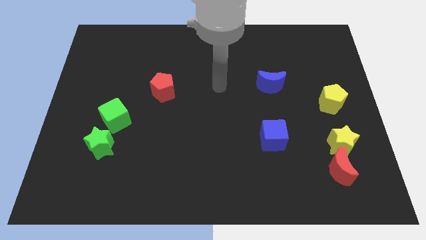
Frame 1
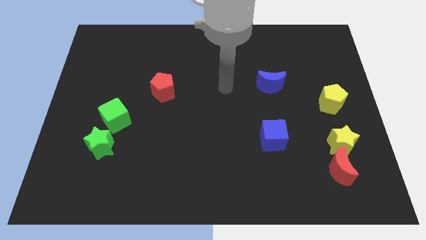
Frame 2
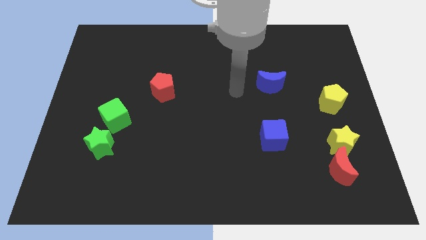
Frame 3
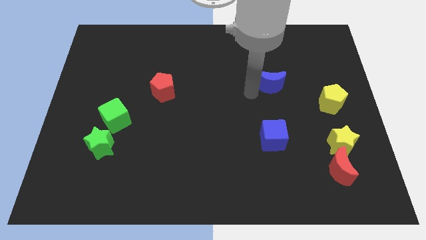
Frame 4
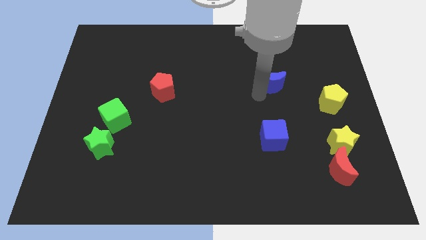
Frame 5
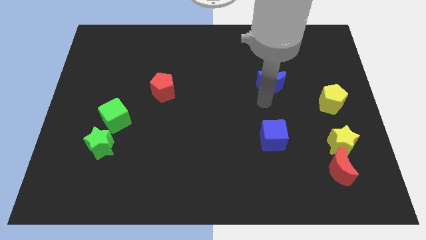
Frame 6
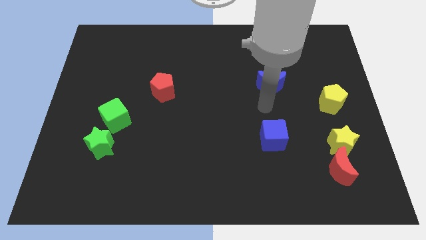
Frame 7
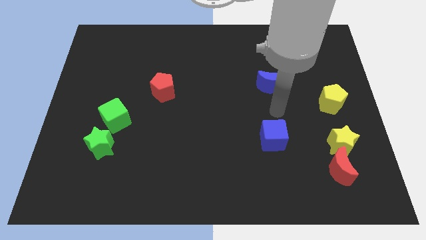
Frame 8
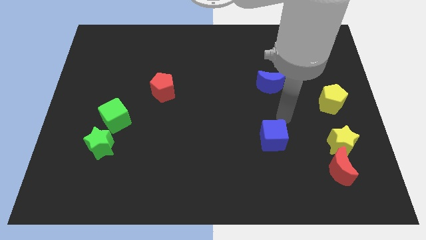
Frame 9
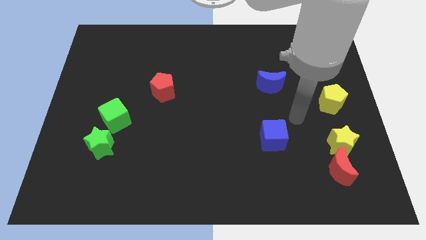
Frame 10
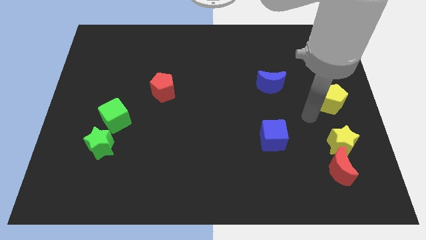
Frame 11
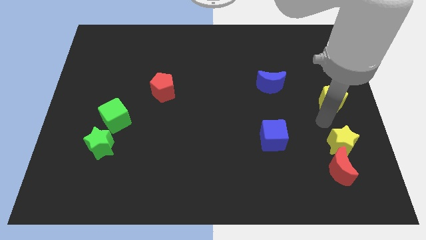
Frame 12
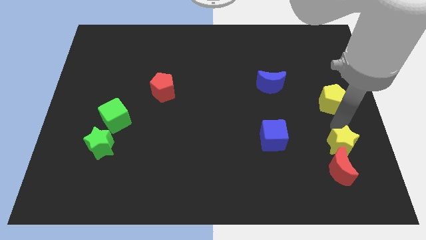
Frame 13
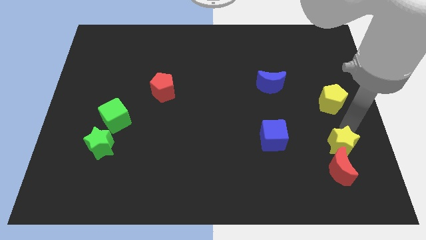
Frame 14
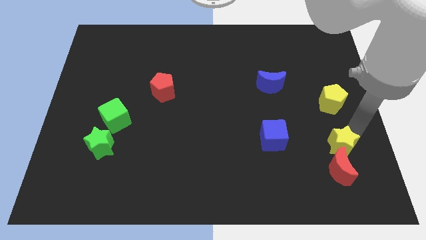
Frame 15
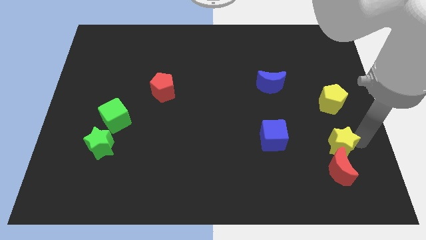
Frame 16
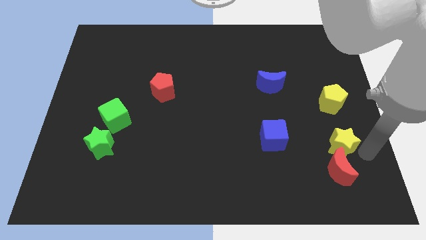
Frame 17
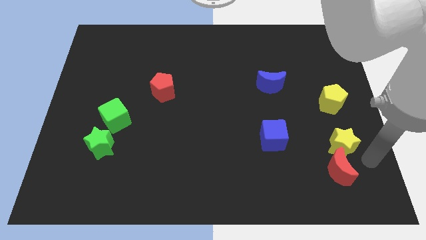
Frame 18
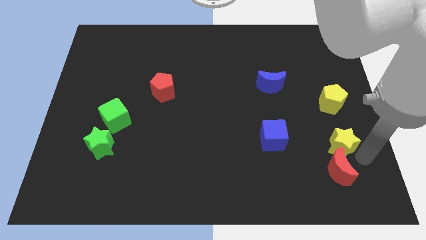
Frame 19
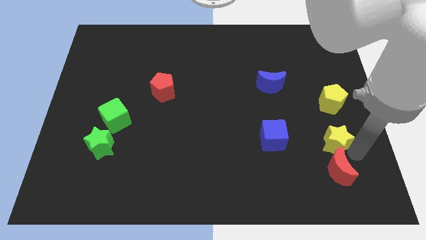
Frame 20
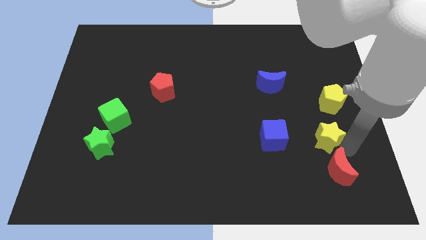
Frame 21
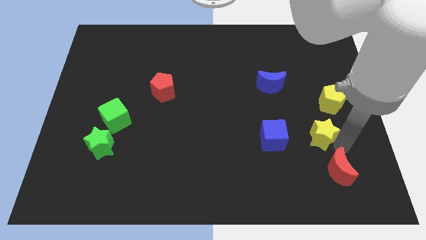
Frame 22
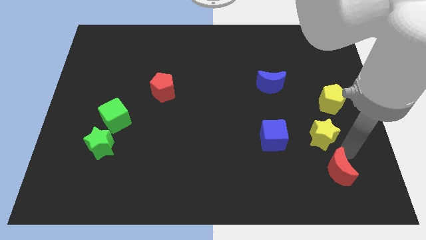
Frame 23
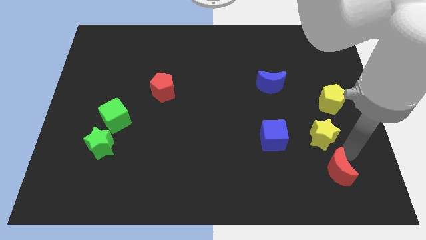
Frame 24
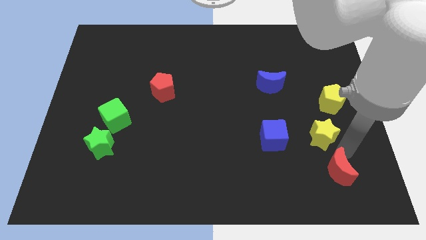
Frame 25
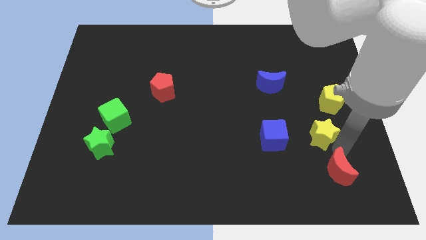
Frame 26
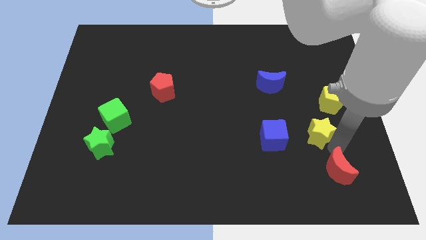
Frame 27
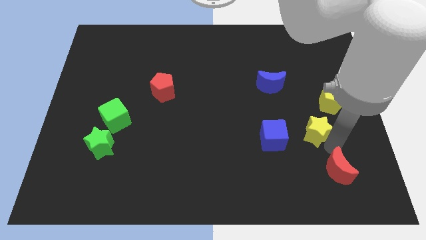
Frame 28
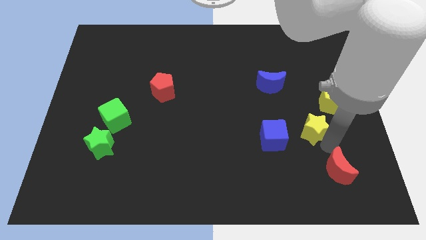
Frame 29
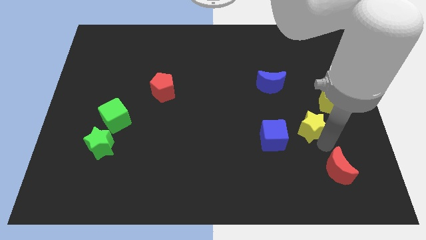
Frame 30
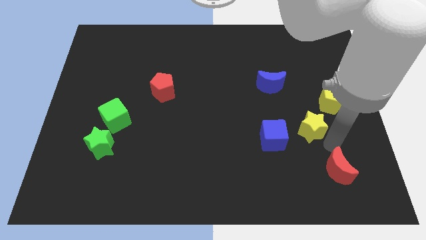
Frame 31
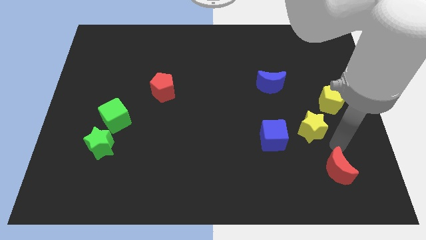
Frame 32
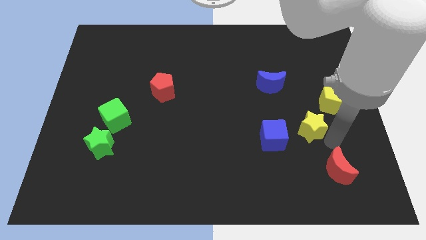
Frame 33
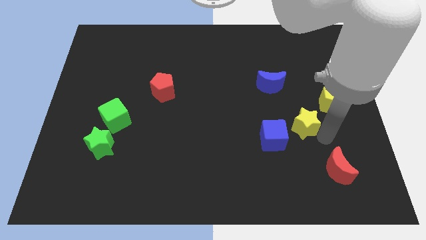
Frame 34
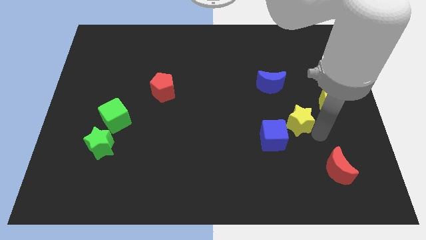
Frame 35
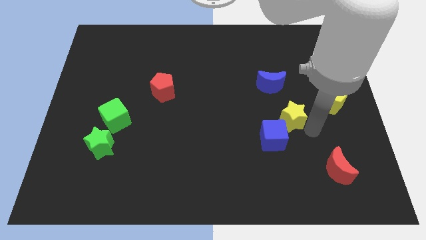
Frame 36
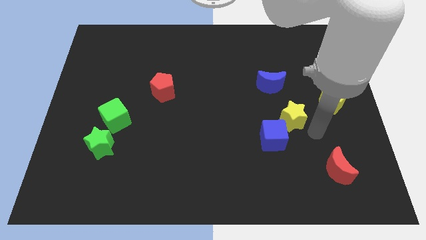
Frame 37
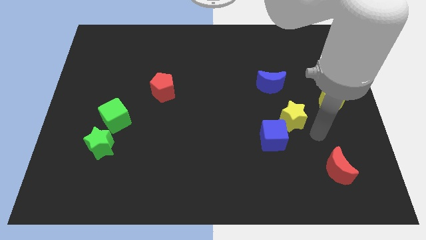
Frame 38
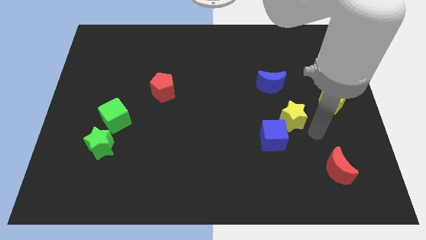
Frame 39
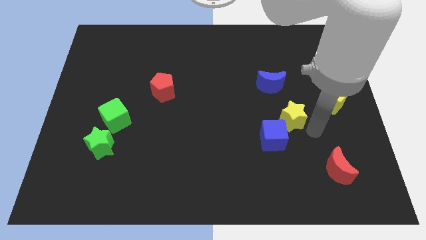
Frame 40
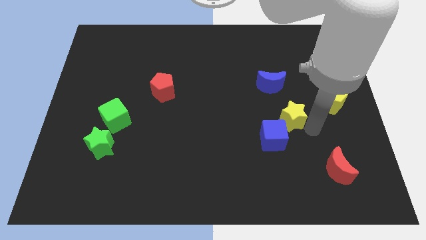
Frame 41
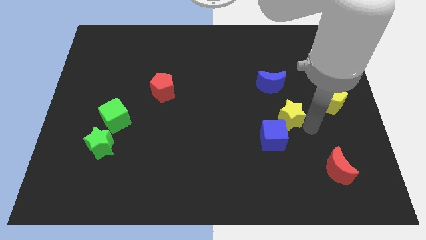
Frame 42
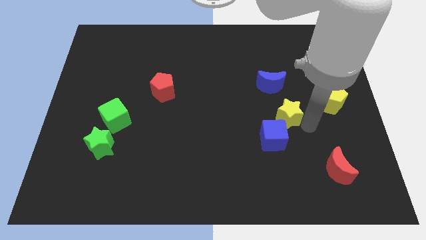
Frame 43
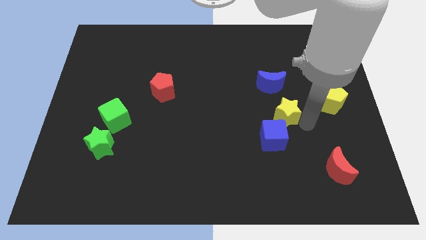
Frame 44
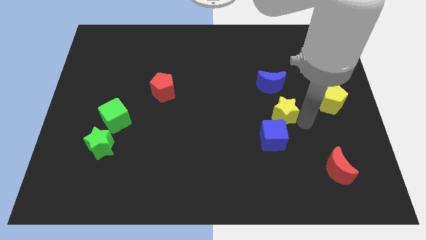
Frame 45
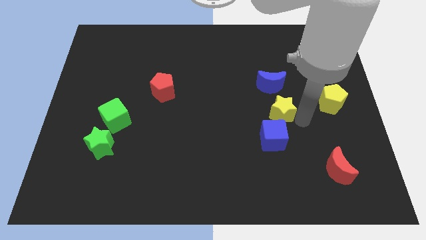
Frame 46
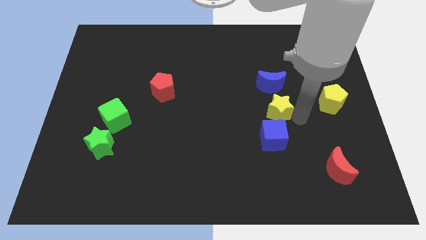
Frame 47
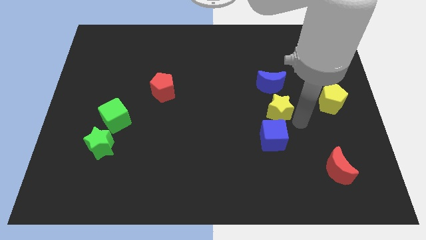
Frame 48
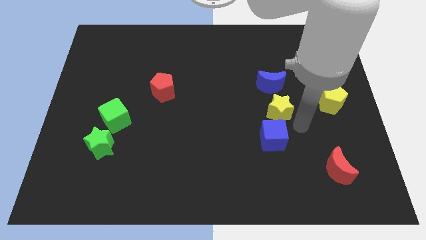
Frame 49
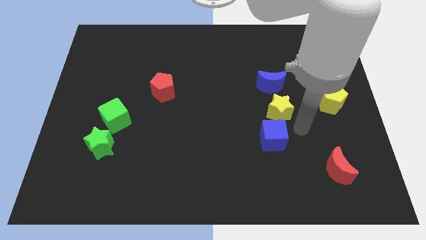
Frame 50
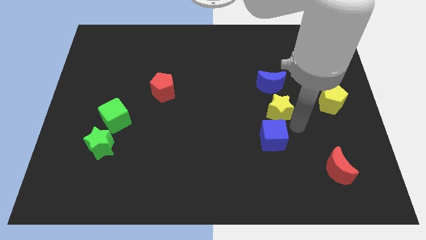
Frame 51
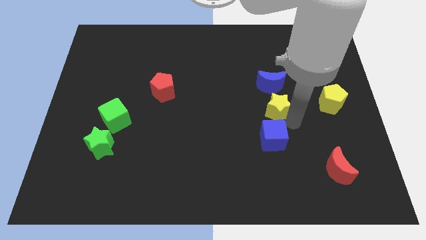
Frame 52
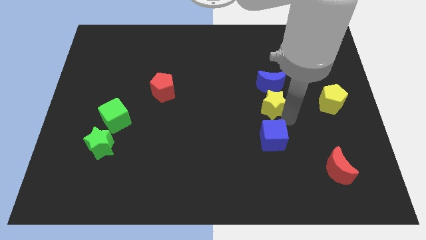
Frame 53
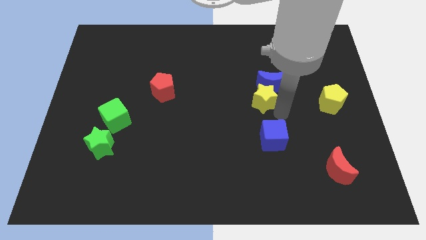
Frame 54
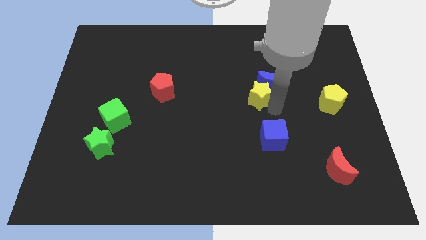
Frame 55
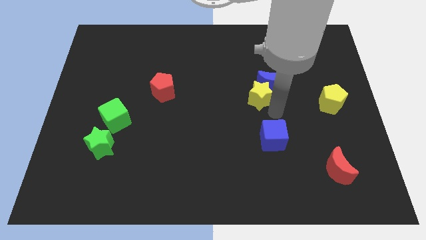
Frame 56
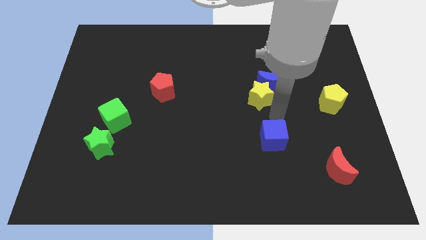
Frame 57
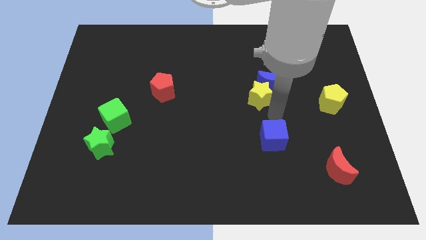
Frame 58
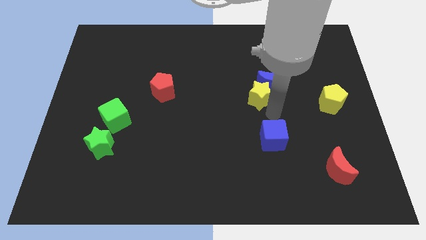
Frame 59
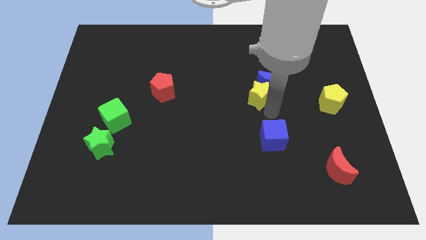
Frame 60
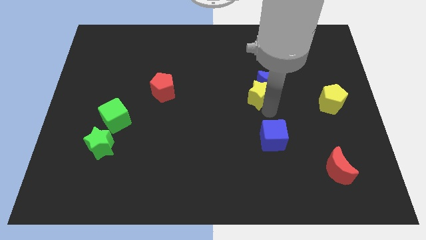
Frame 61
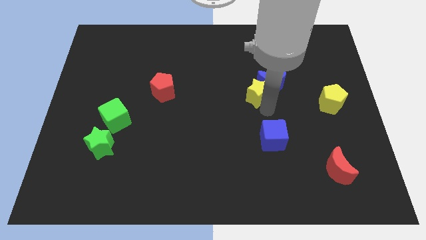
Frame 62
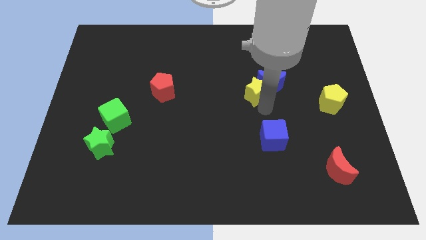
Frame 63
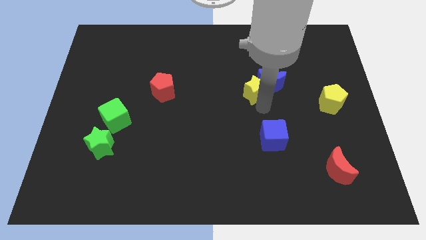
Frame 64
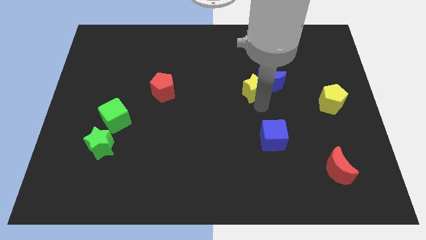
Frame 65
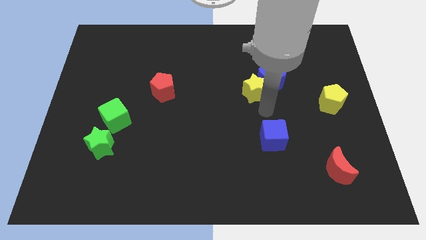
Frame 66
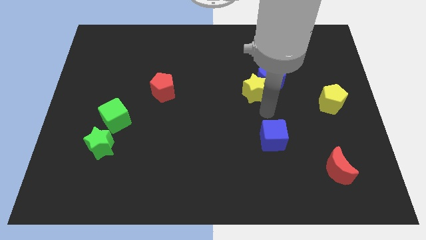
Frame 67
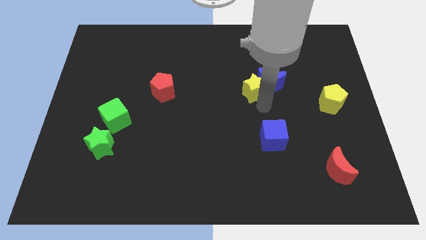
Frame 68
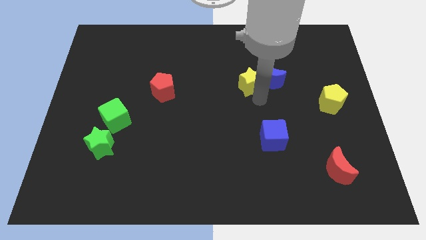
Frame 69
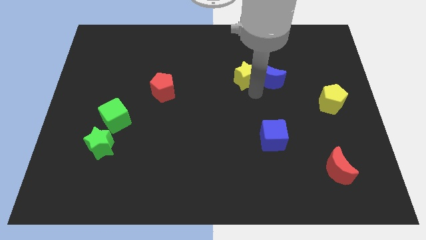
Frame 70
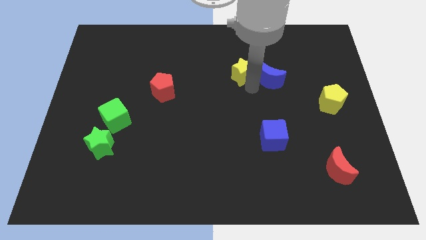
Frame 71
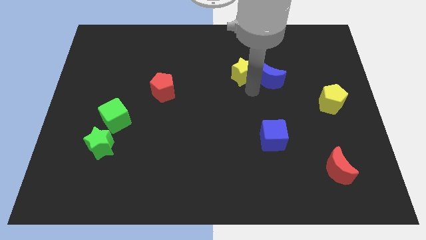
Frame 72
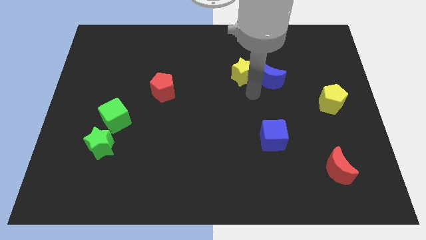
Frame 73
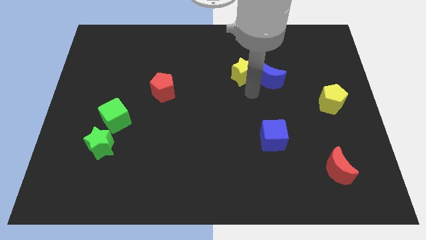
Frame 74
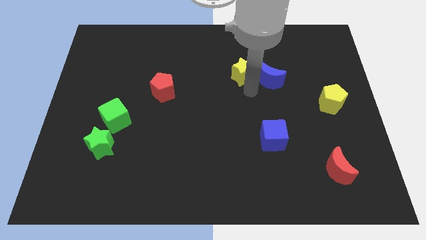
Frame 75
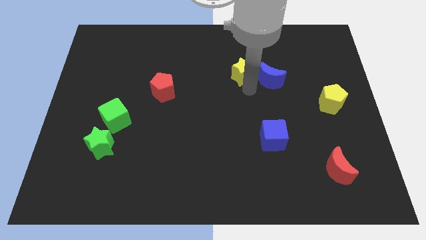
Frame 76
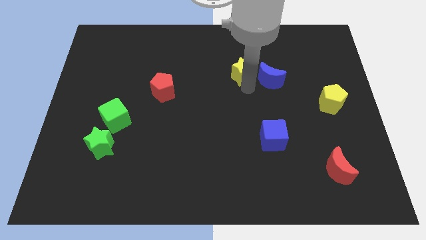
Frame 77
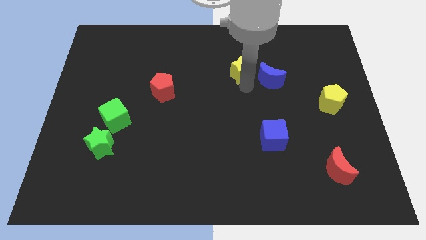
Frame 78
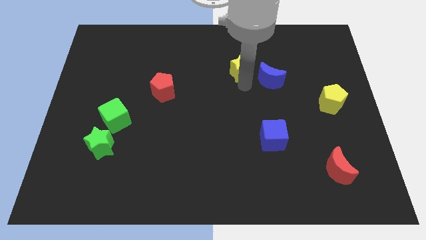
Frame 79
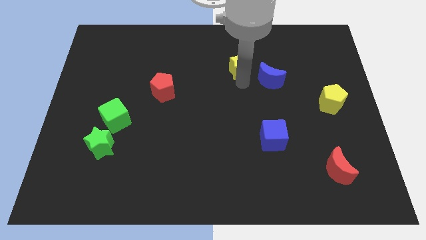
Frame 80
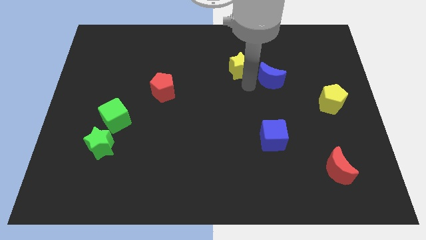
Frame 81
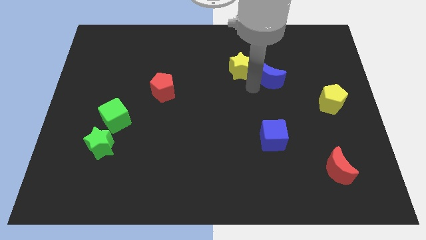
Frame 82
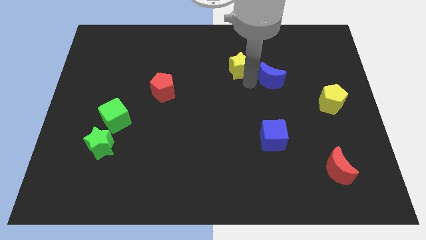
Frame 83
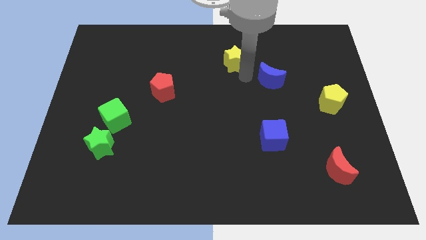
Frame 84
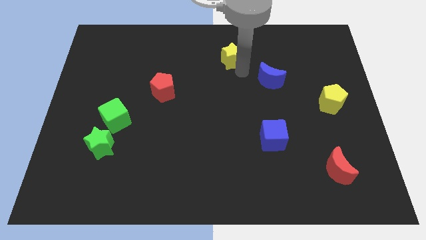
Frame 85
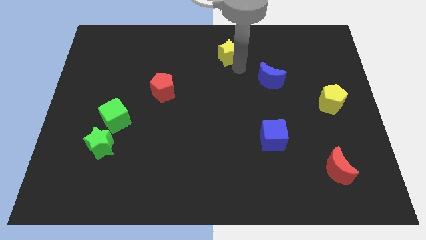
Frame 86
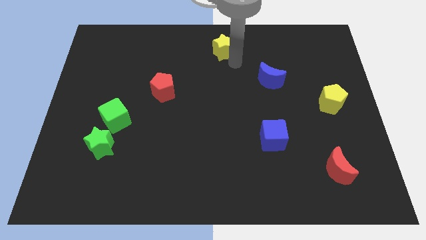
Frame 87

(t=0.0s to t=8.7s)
push the yellow star to the top side
